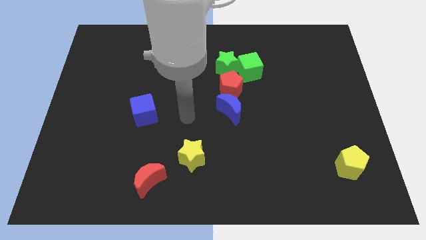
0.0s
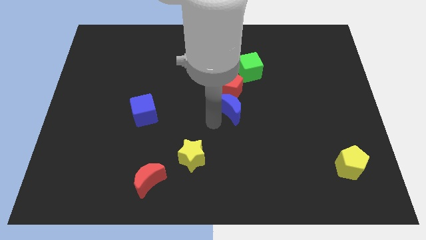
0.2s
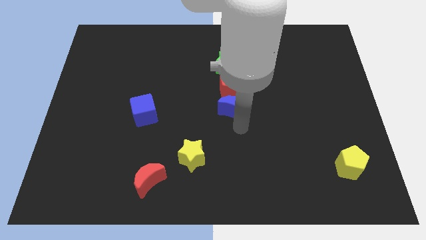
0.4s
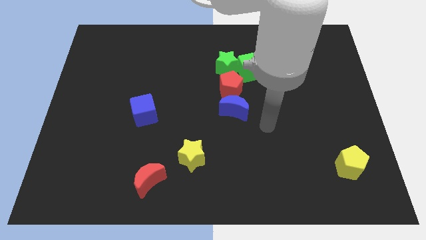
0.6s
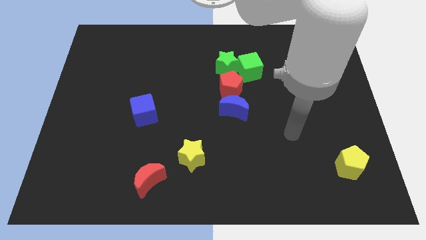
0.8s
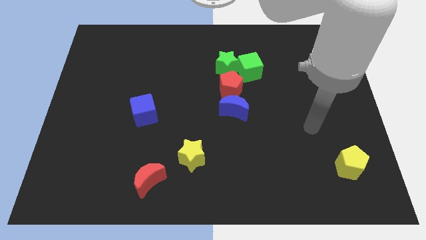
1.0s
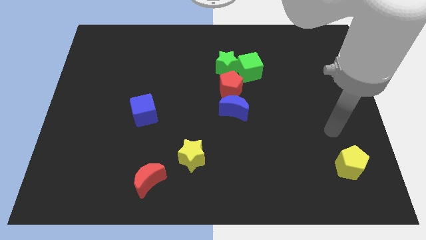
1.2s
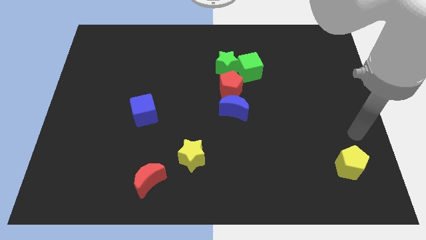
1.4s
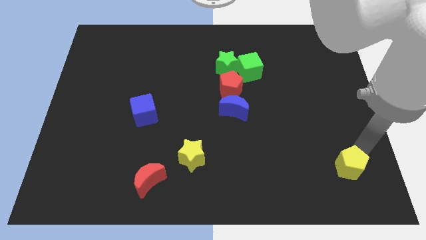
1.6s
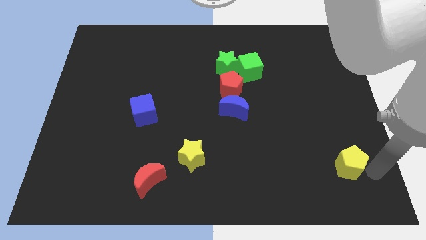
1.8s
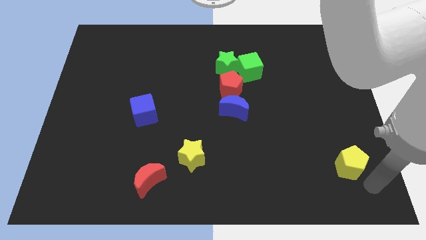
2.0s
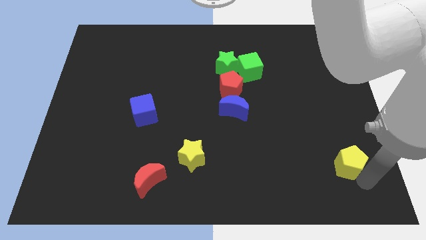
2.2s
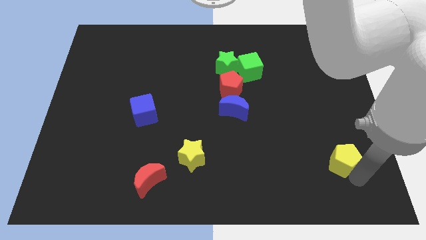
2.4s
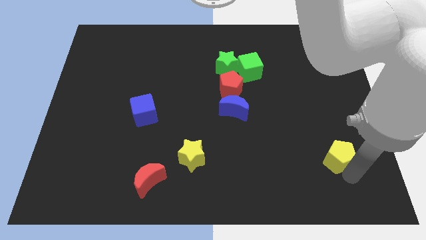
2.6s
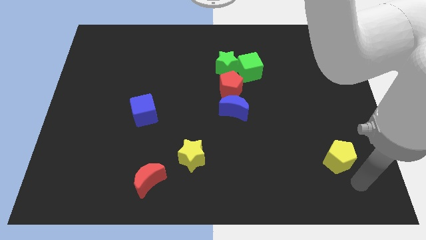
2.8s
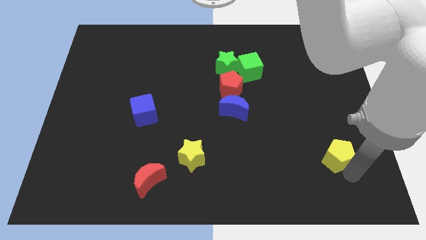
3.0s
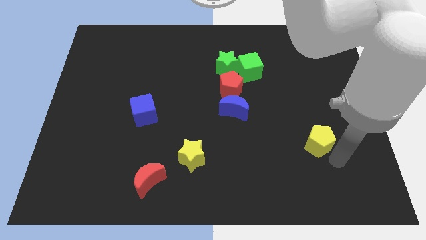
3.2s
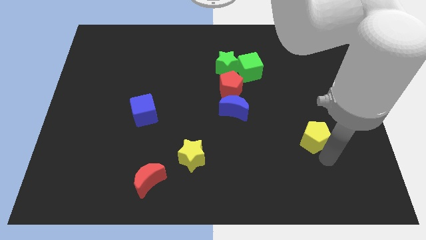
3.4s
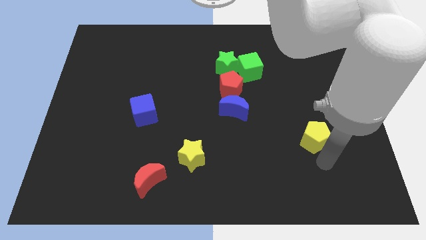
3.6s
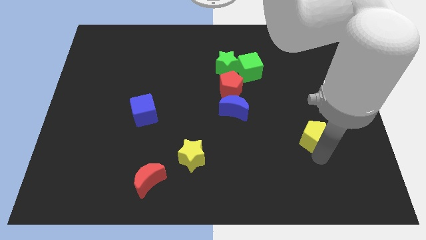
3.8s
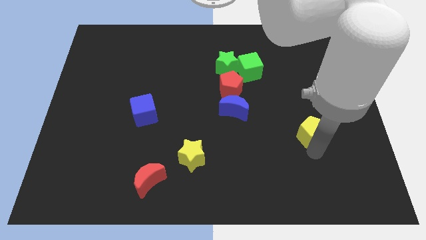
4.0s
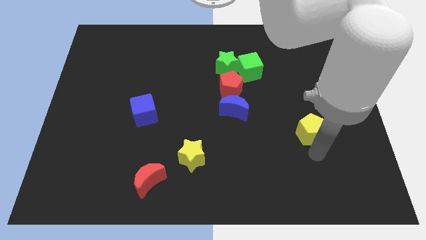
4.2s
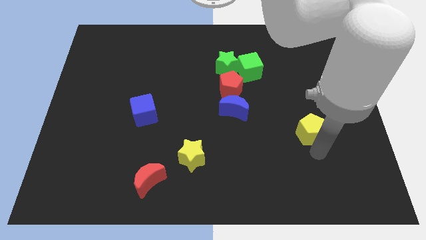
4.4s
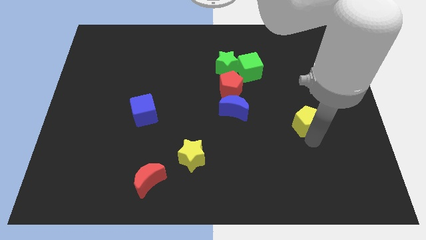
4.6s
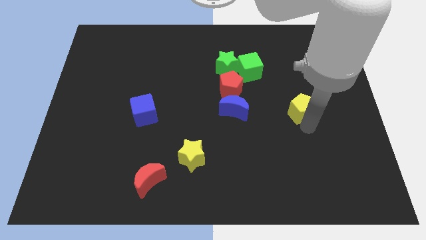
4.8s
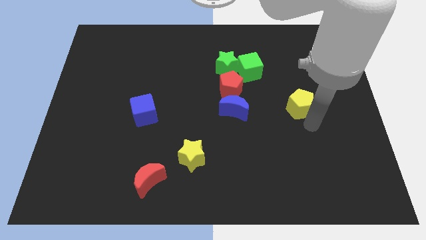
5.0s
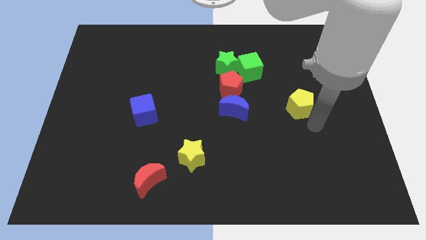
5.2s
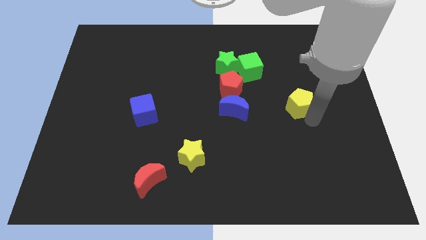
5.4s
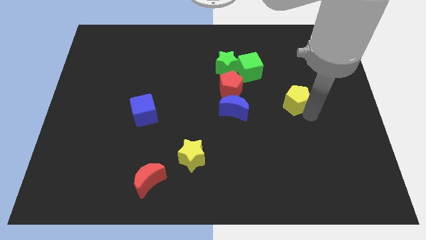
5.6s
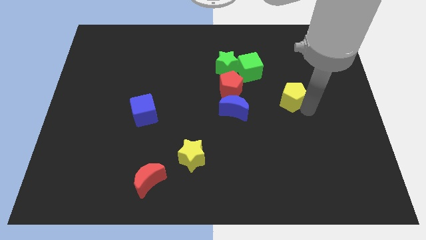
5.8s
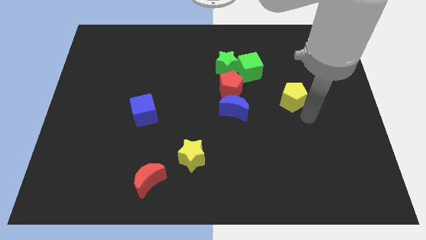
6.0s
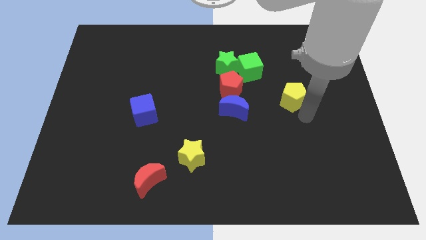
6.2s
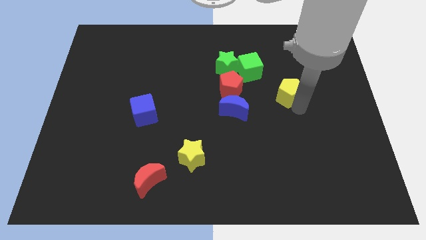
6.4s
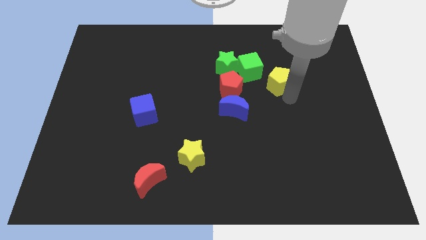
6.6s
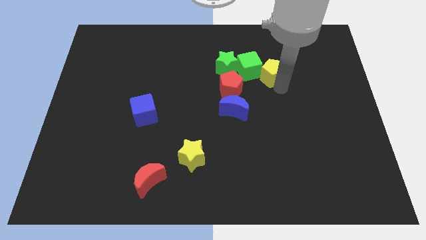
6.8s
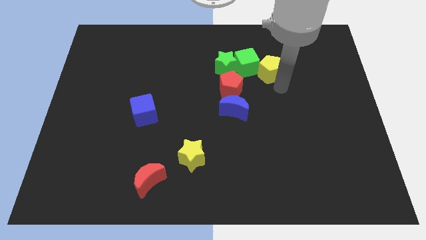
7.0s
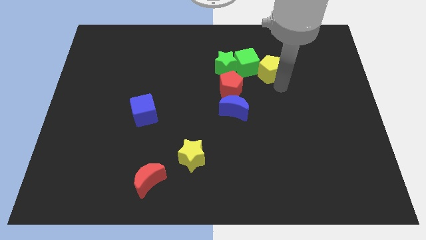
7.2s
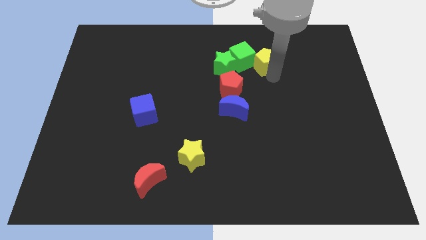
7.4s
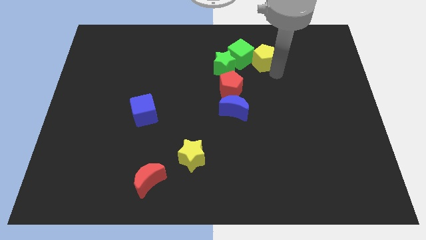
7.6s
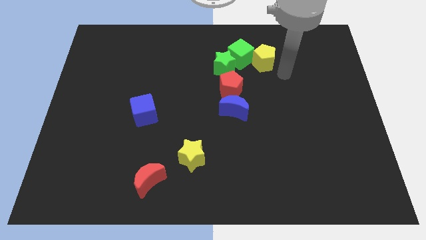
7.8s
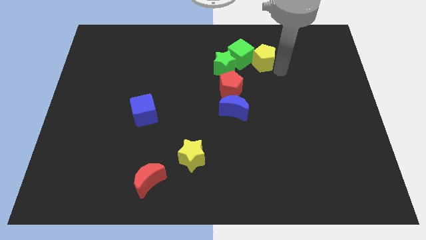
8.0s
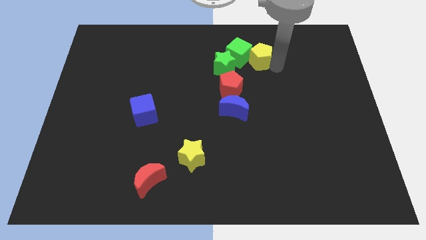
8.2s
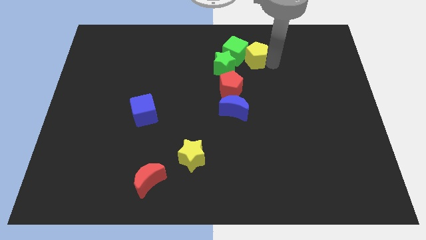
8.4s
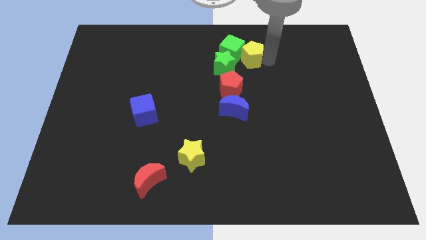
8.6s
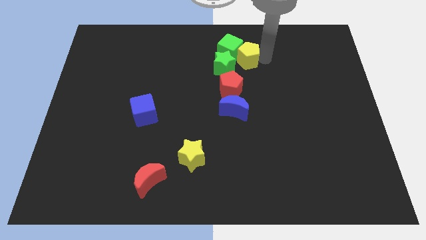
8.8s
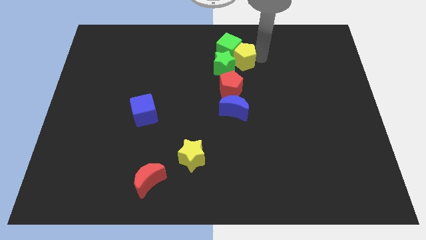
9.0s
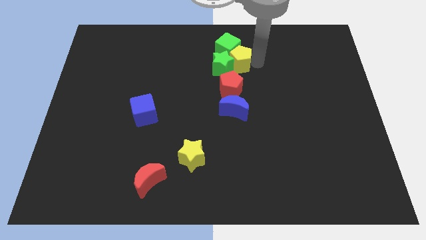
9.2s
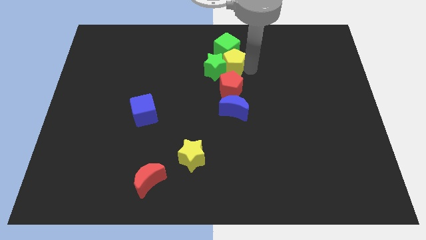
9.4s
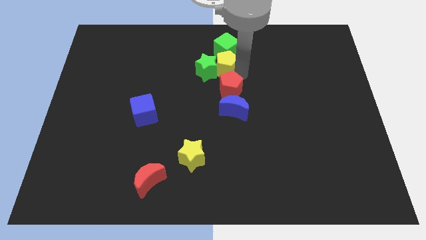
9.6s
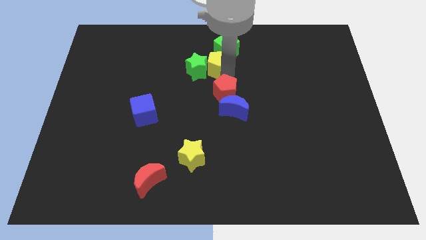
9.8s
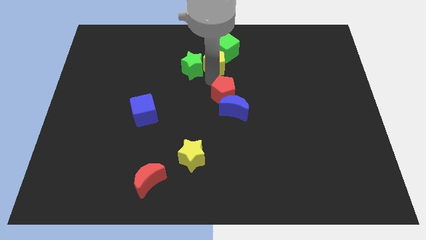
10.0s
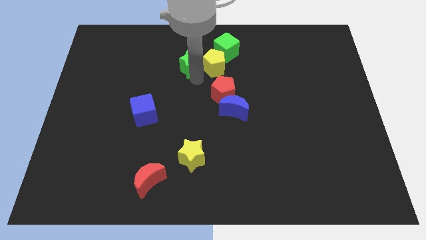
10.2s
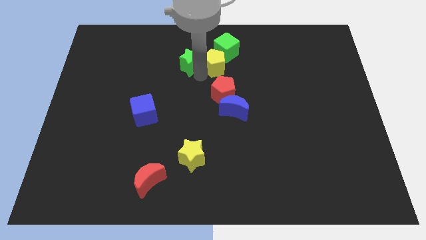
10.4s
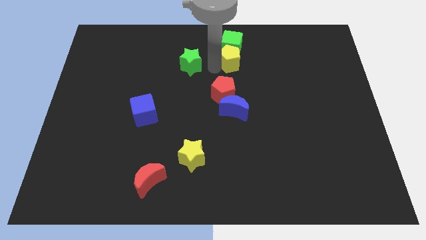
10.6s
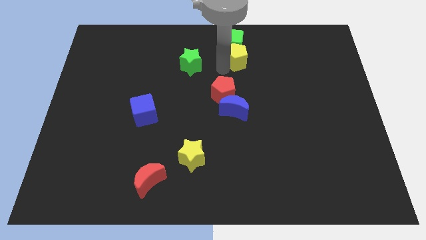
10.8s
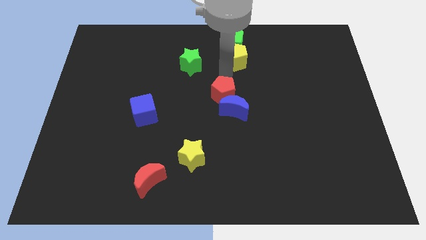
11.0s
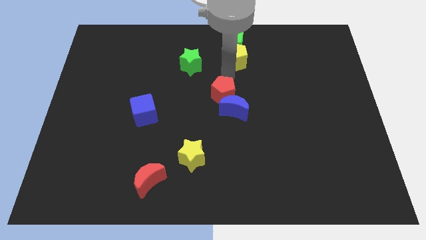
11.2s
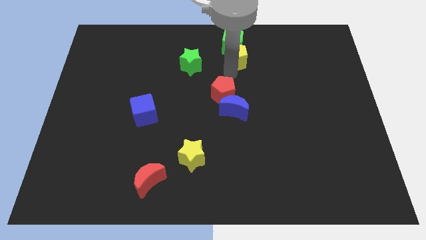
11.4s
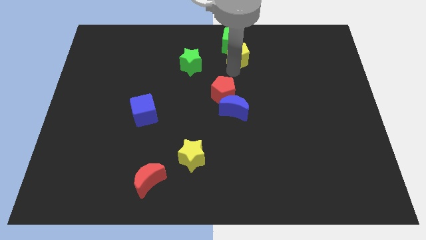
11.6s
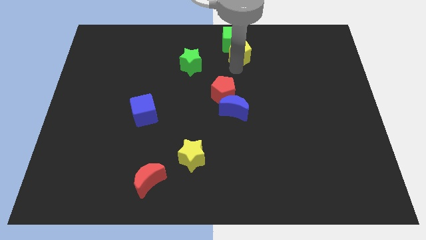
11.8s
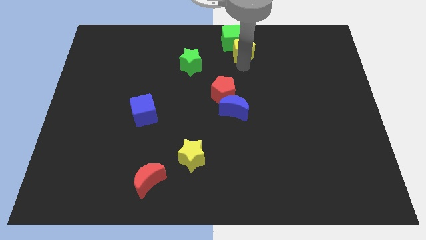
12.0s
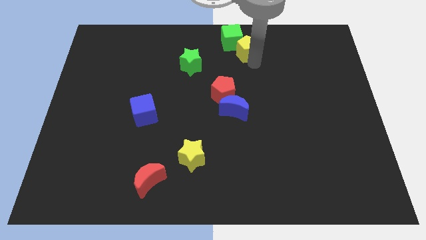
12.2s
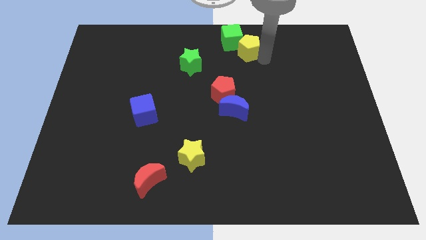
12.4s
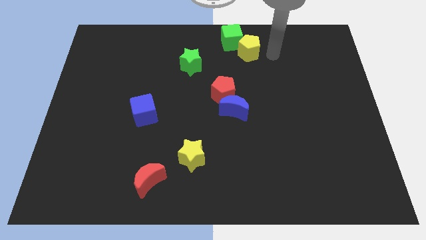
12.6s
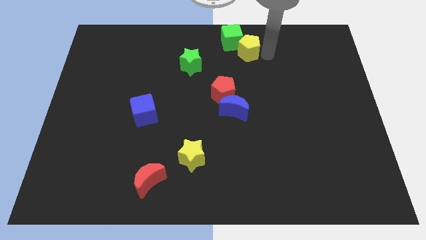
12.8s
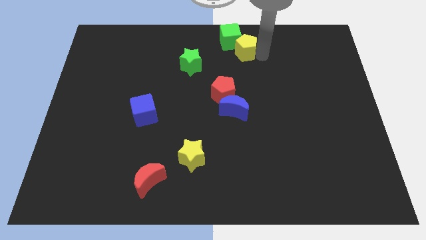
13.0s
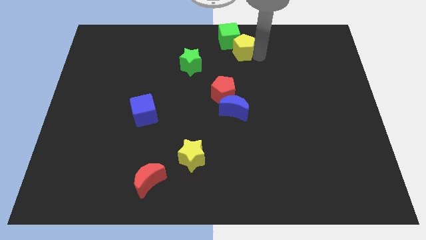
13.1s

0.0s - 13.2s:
move the yellow pentagon to the towards your base
